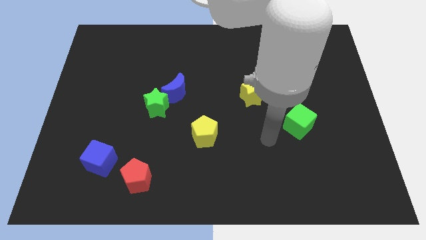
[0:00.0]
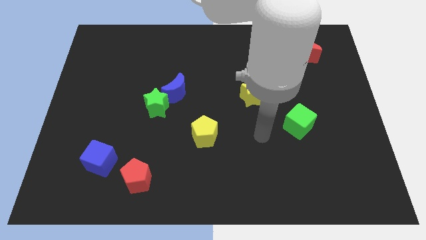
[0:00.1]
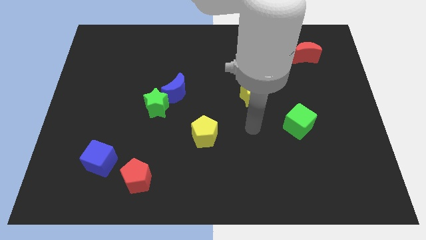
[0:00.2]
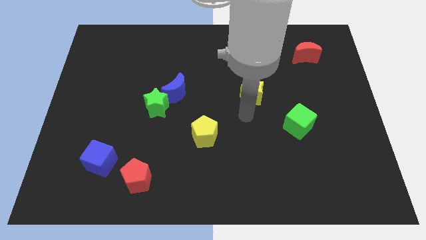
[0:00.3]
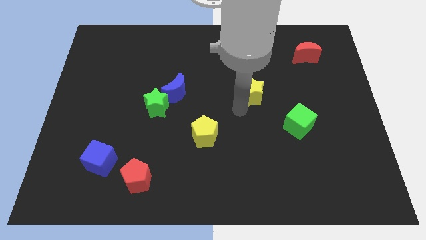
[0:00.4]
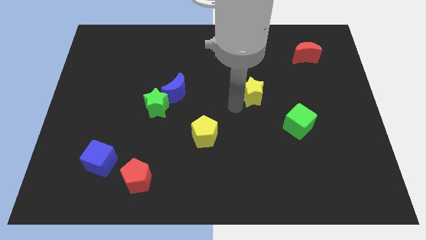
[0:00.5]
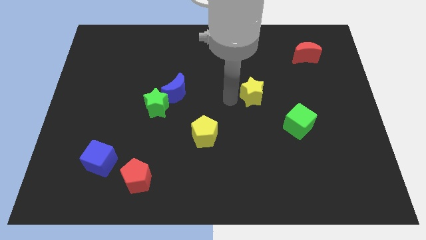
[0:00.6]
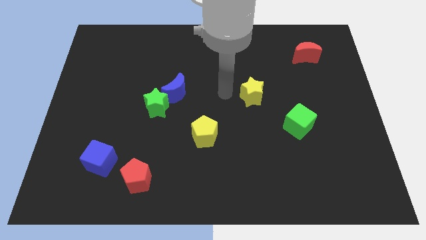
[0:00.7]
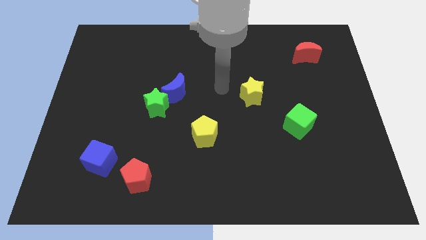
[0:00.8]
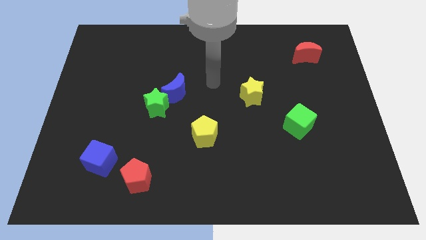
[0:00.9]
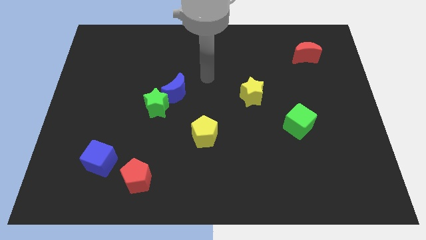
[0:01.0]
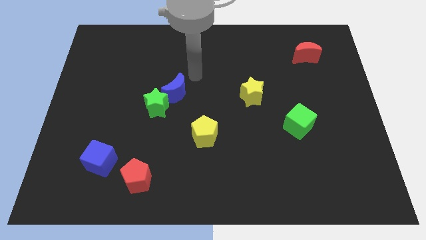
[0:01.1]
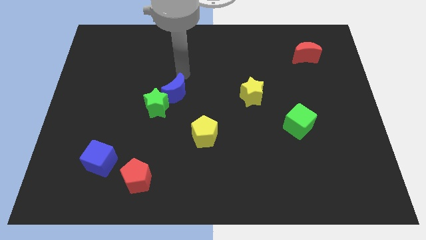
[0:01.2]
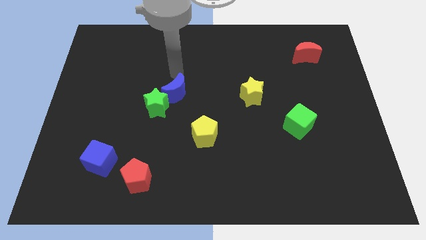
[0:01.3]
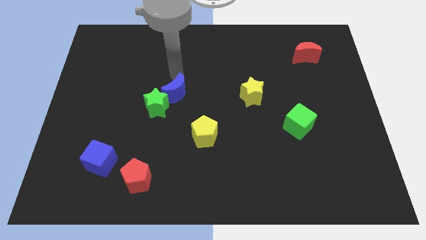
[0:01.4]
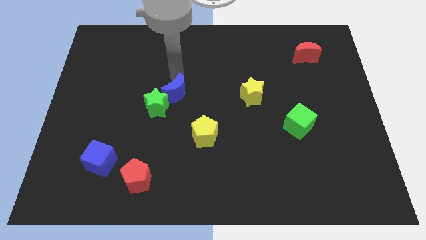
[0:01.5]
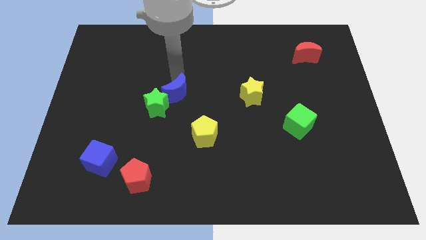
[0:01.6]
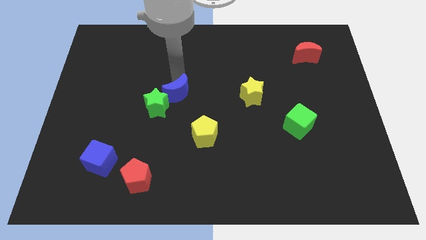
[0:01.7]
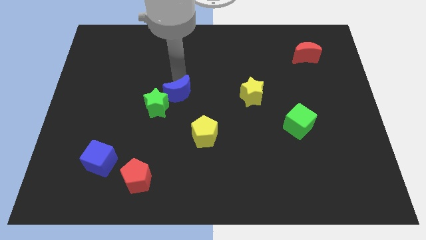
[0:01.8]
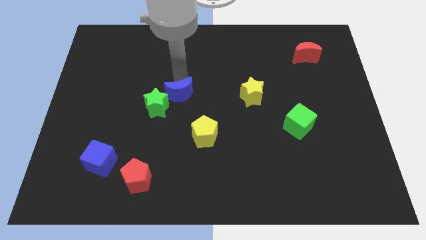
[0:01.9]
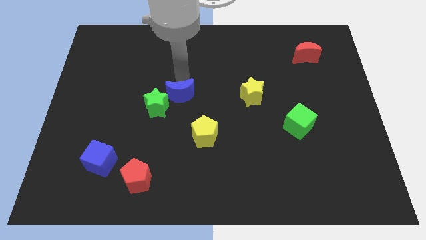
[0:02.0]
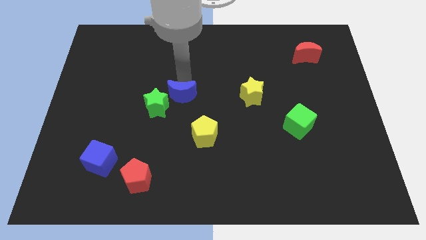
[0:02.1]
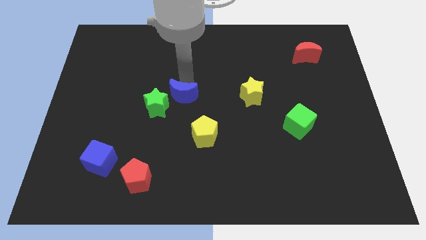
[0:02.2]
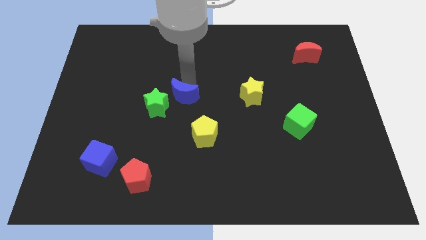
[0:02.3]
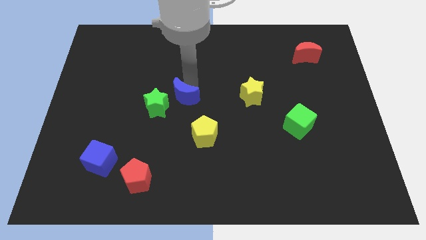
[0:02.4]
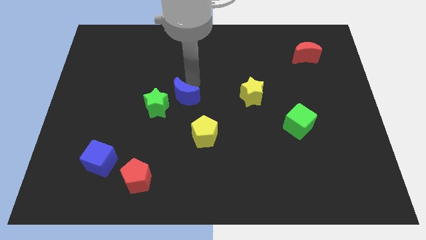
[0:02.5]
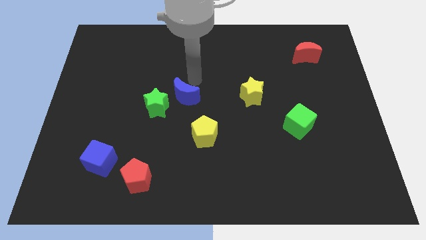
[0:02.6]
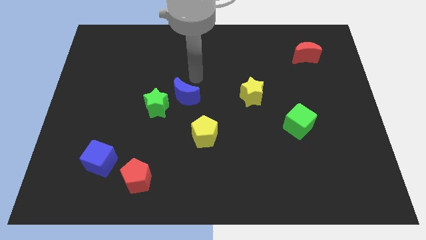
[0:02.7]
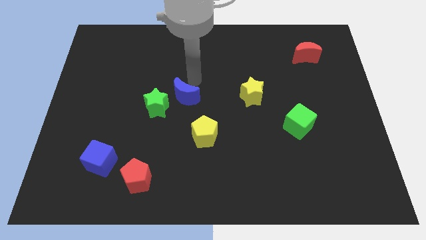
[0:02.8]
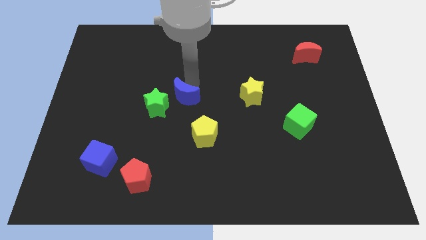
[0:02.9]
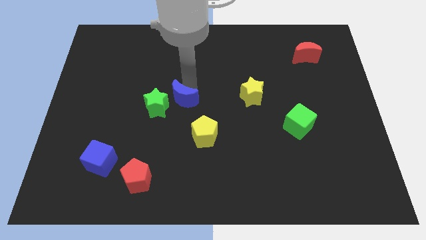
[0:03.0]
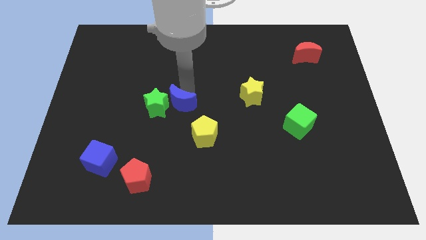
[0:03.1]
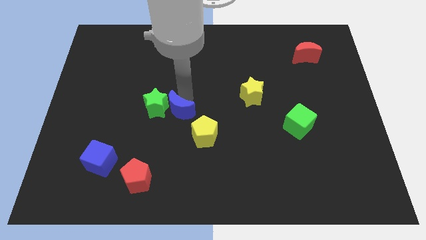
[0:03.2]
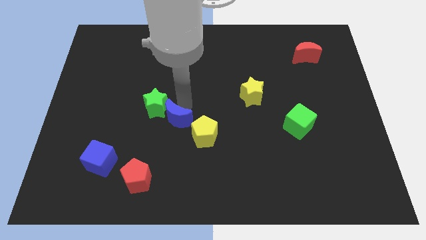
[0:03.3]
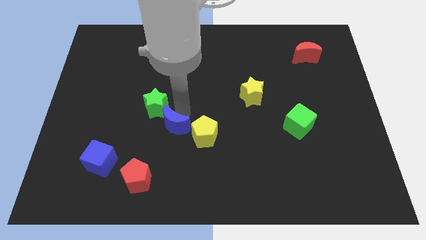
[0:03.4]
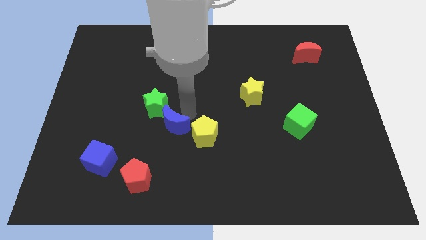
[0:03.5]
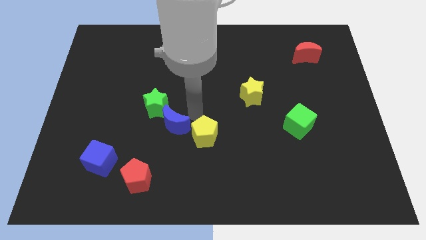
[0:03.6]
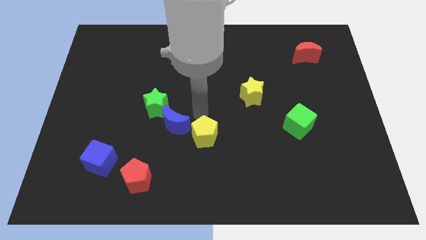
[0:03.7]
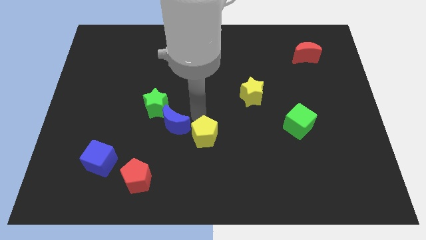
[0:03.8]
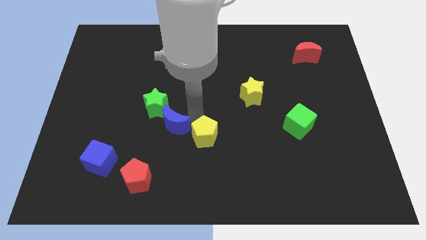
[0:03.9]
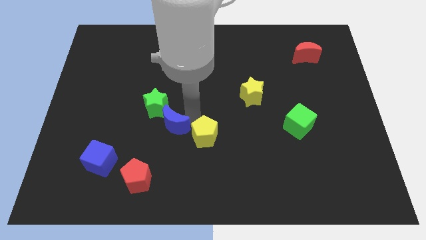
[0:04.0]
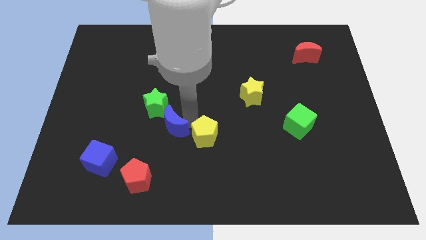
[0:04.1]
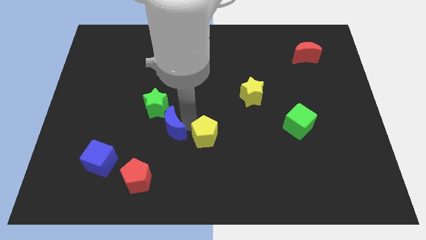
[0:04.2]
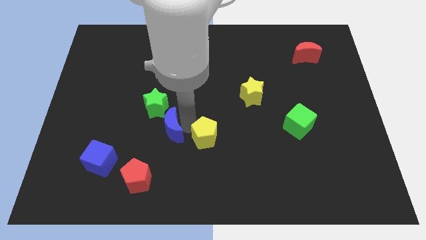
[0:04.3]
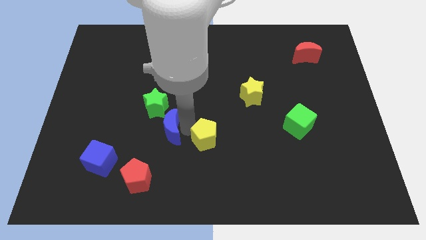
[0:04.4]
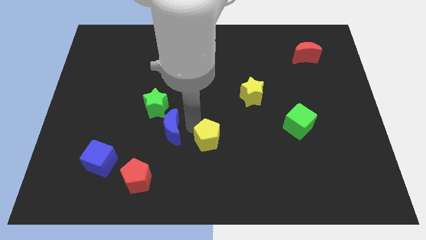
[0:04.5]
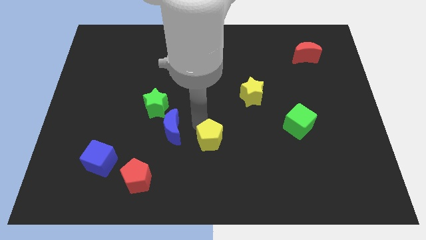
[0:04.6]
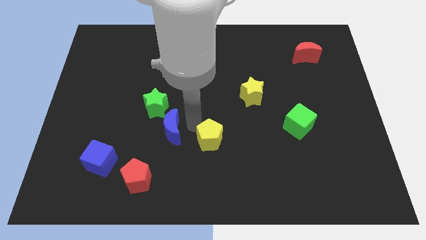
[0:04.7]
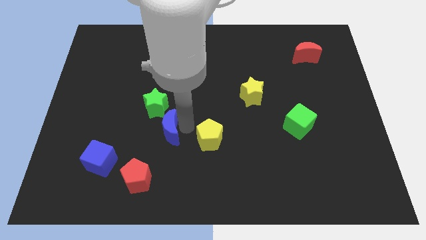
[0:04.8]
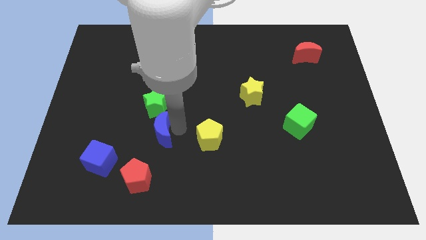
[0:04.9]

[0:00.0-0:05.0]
slide the blue moon above the red pentagon

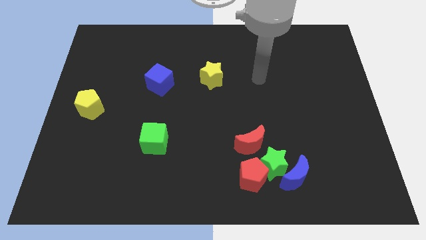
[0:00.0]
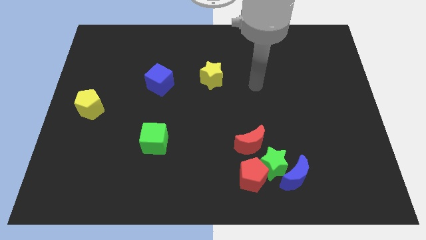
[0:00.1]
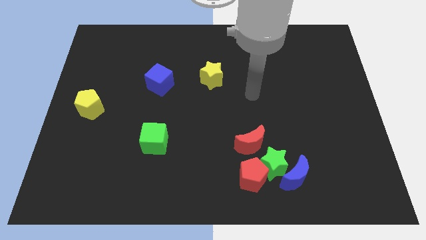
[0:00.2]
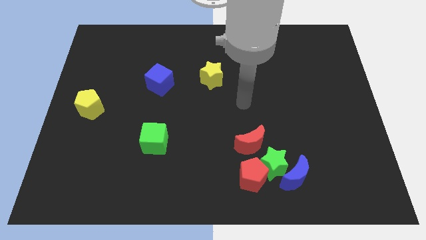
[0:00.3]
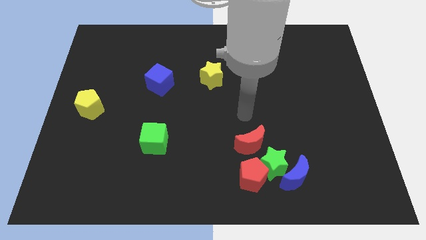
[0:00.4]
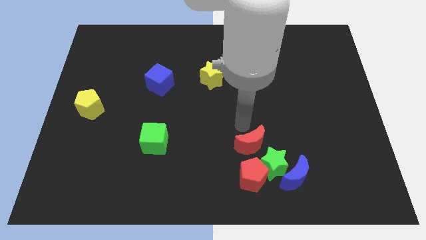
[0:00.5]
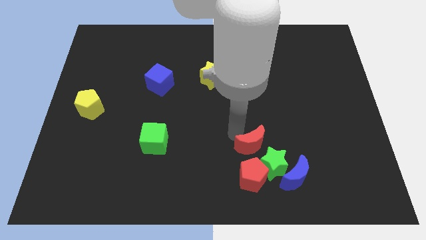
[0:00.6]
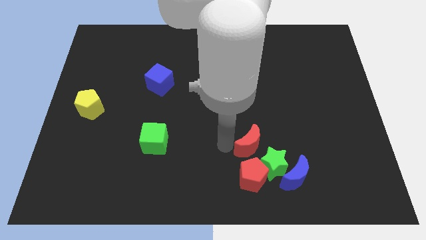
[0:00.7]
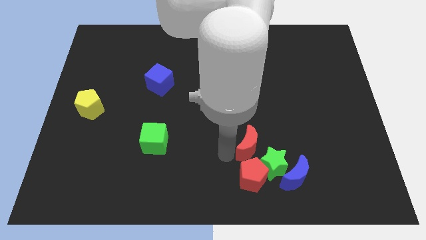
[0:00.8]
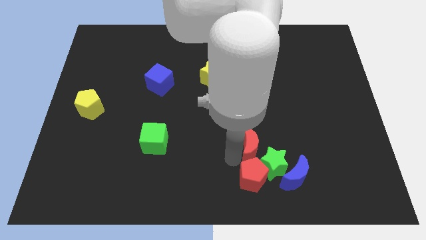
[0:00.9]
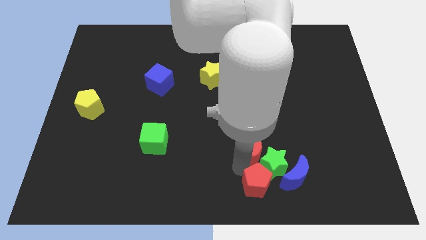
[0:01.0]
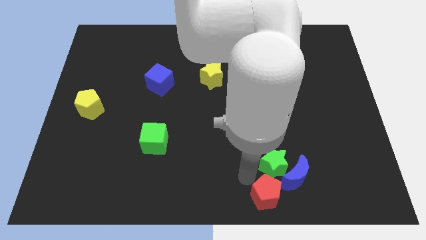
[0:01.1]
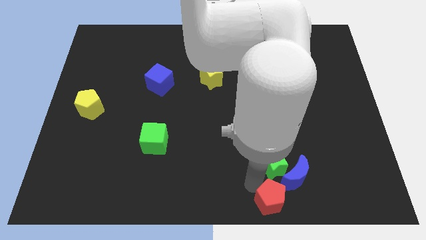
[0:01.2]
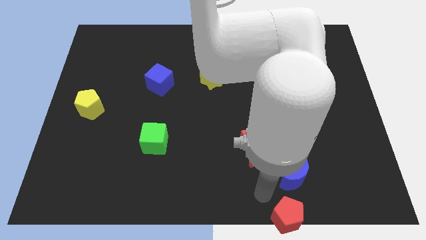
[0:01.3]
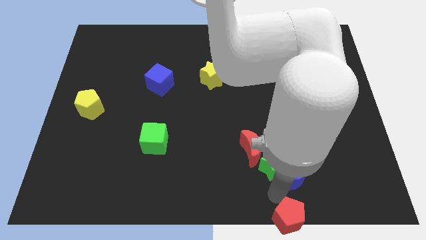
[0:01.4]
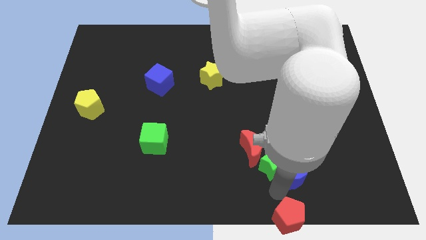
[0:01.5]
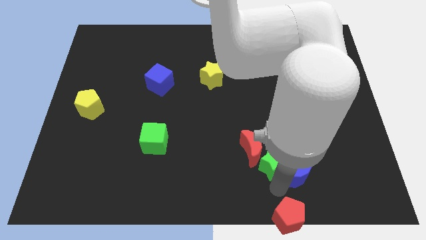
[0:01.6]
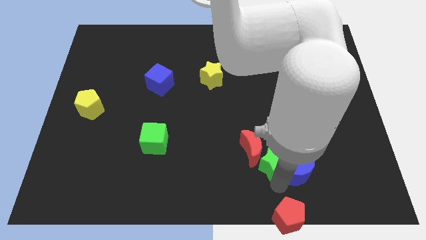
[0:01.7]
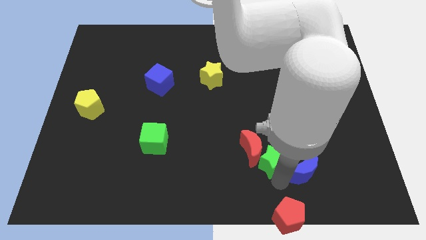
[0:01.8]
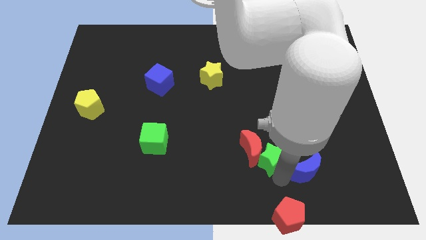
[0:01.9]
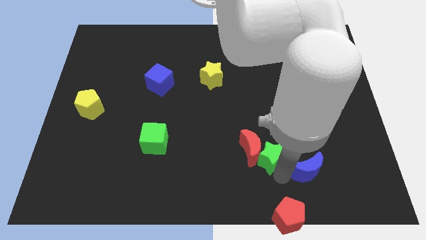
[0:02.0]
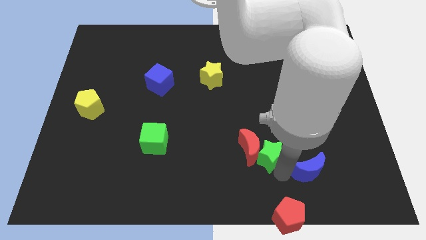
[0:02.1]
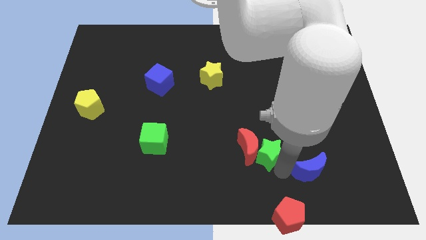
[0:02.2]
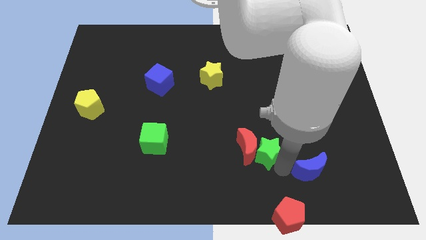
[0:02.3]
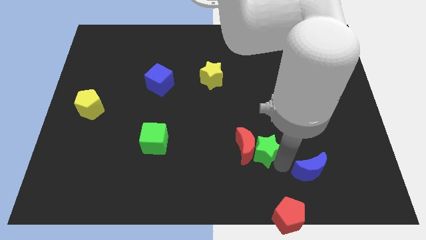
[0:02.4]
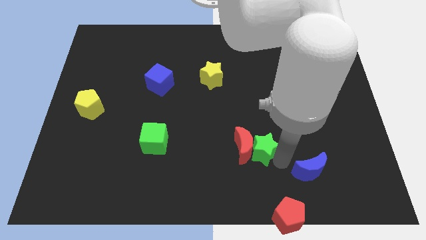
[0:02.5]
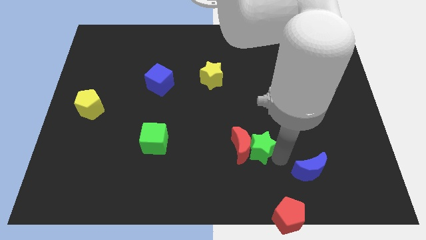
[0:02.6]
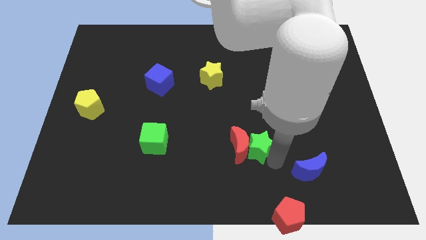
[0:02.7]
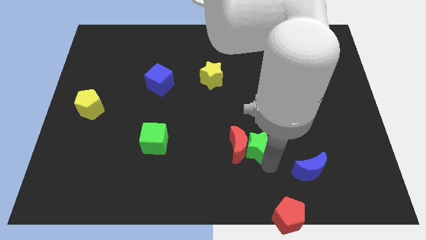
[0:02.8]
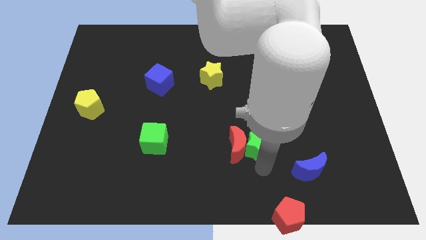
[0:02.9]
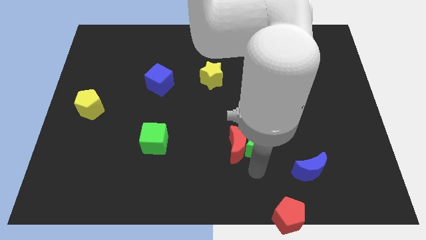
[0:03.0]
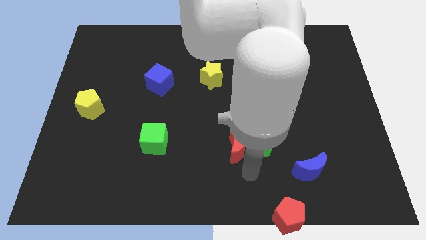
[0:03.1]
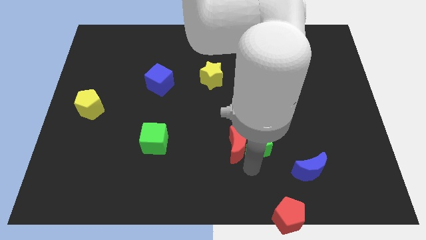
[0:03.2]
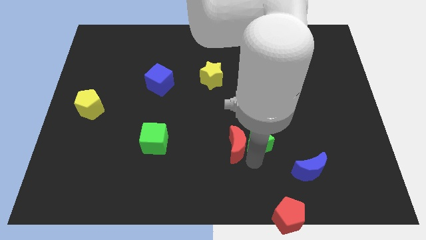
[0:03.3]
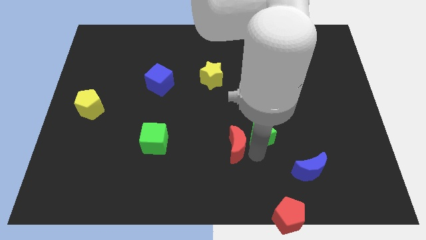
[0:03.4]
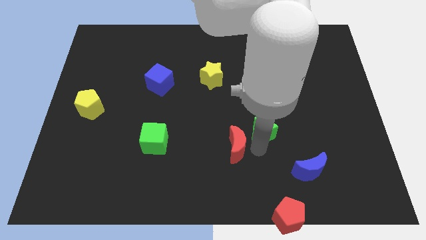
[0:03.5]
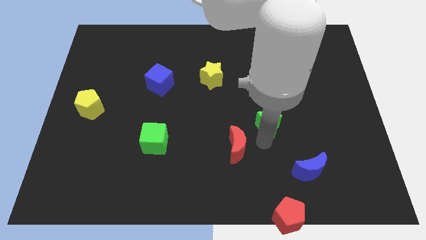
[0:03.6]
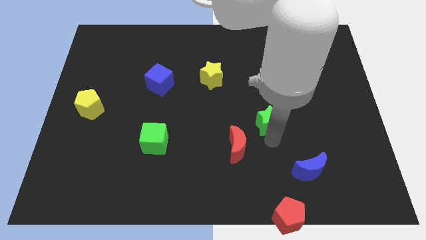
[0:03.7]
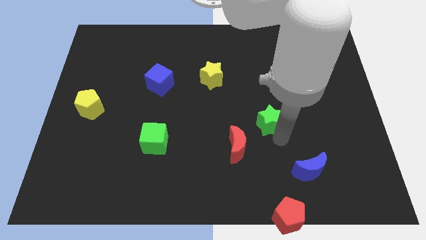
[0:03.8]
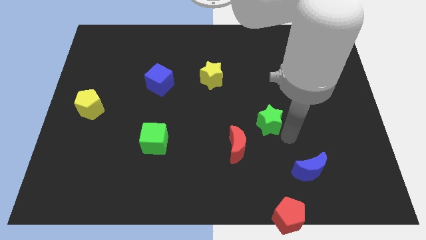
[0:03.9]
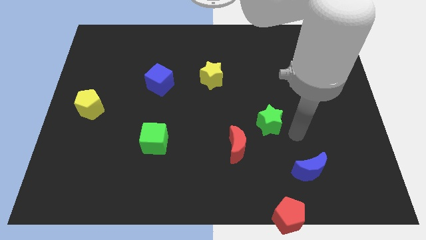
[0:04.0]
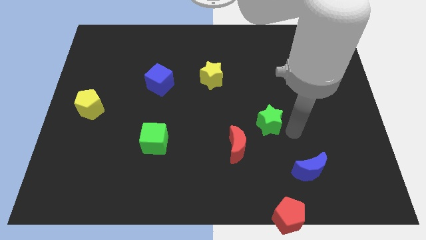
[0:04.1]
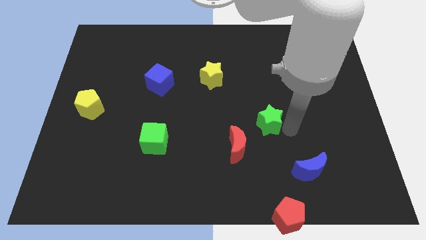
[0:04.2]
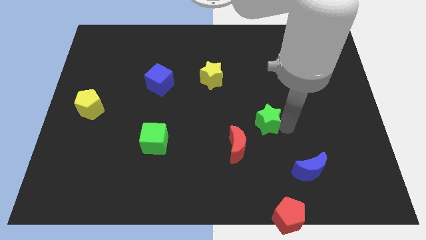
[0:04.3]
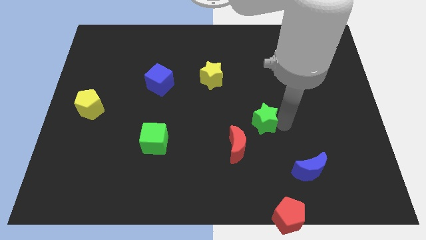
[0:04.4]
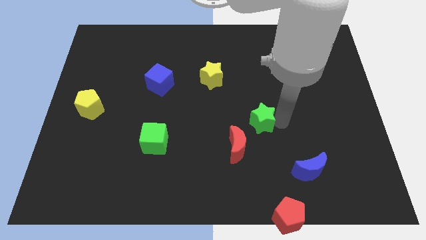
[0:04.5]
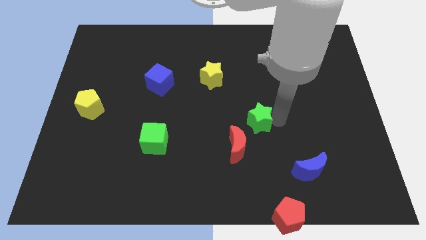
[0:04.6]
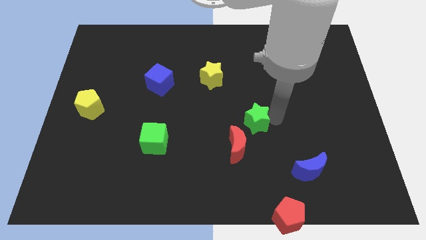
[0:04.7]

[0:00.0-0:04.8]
push the green star to the top side of the red moon
